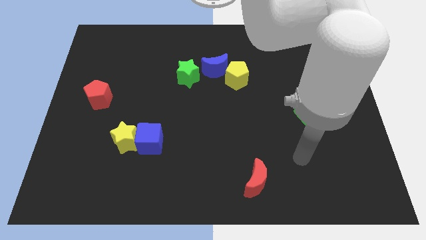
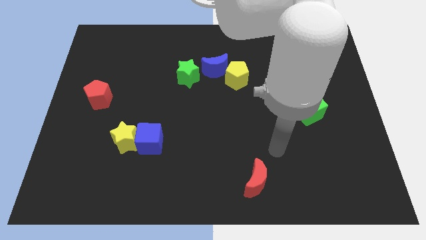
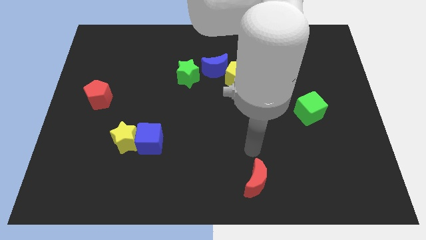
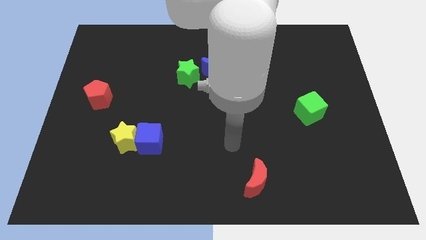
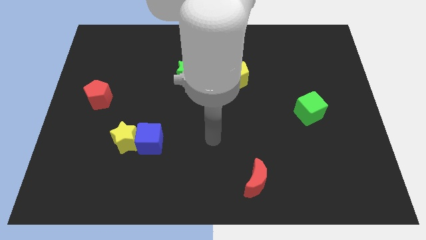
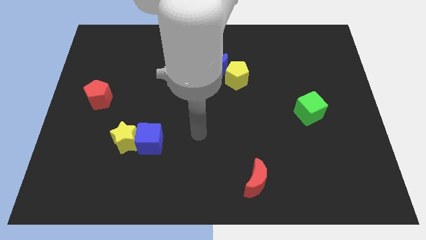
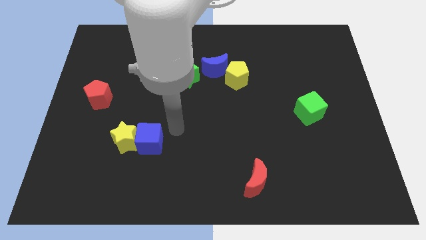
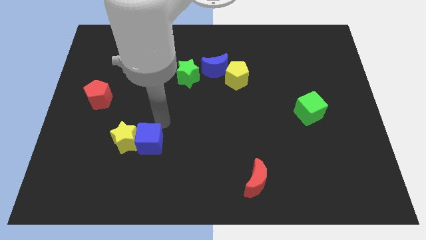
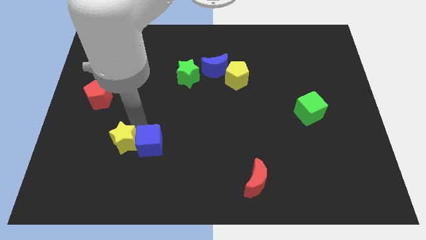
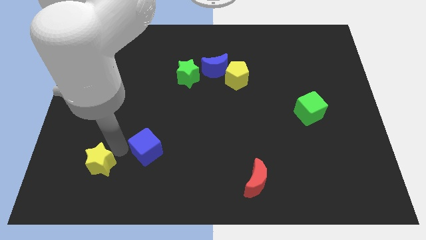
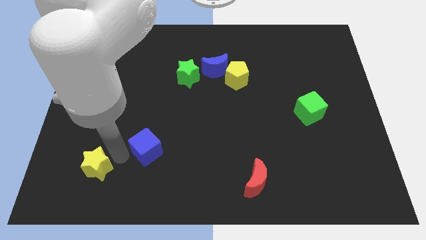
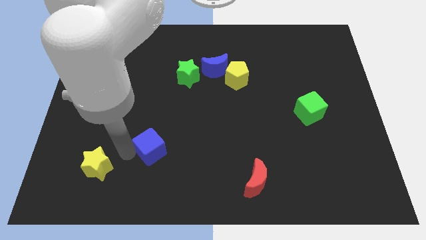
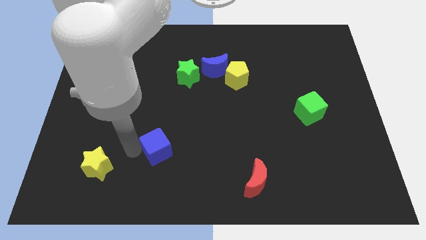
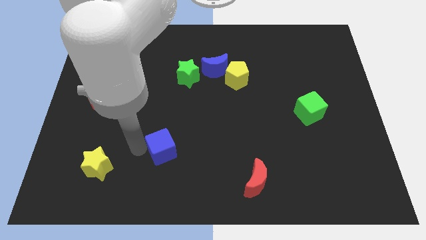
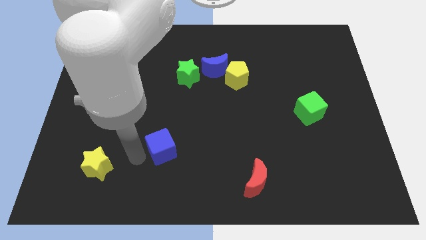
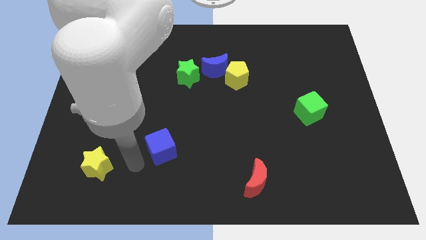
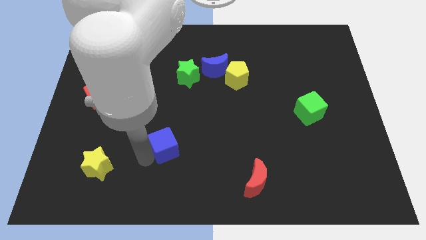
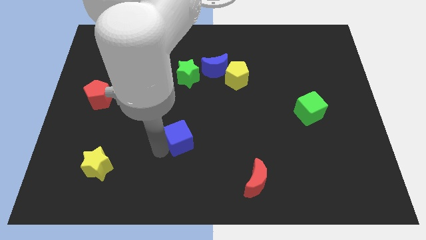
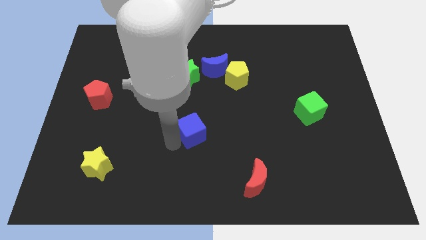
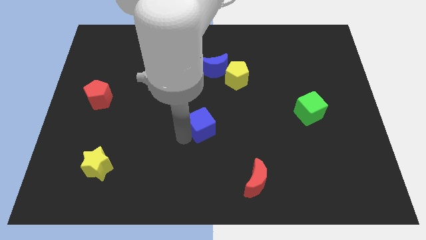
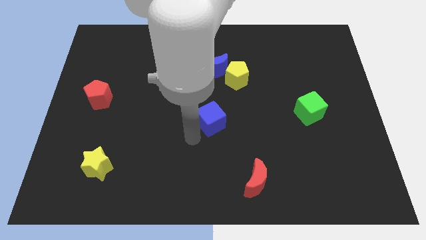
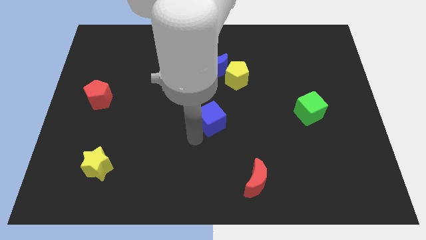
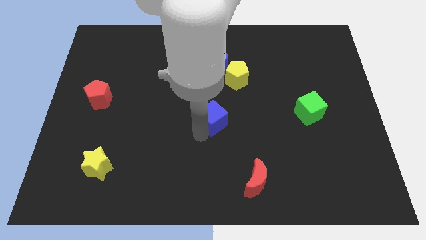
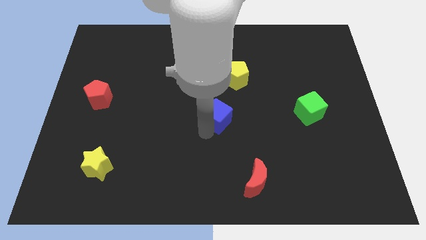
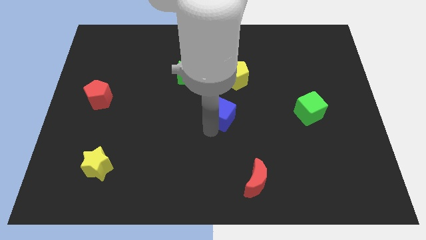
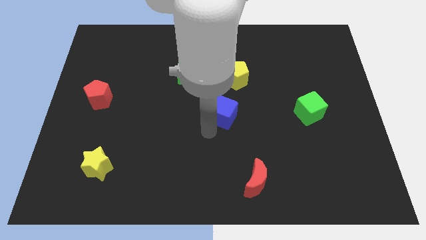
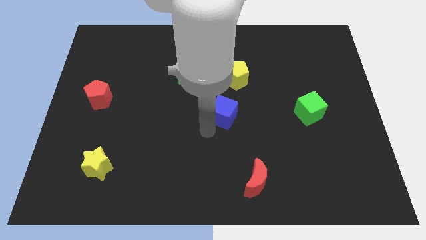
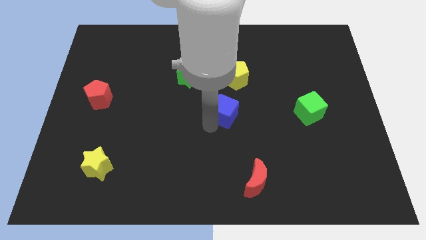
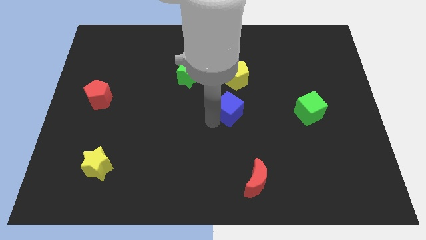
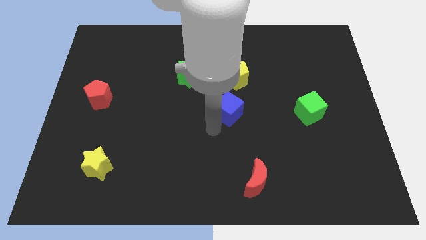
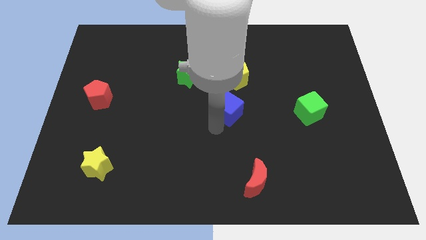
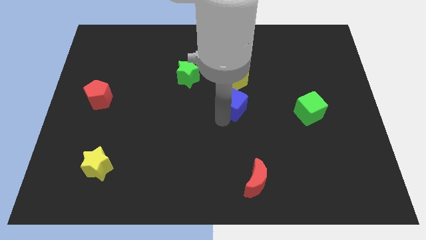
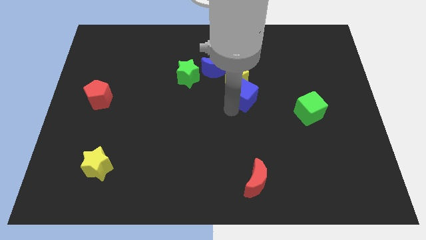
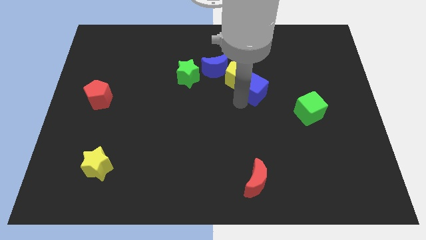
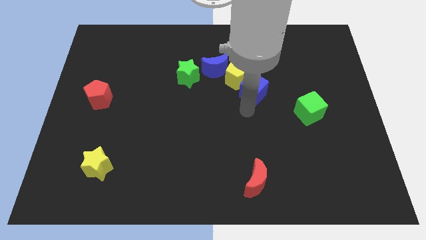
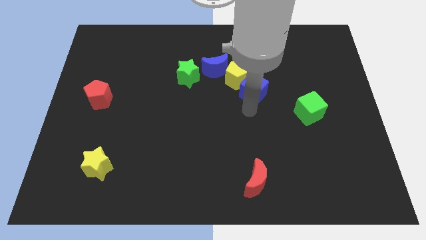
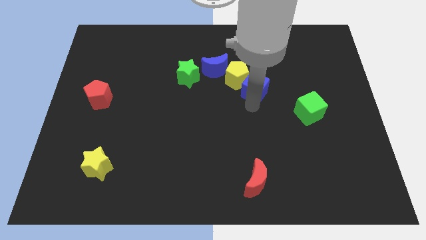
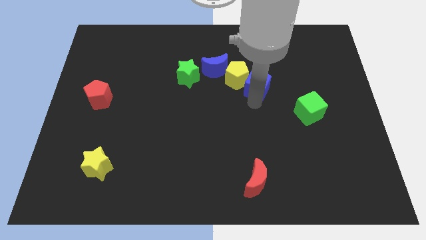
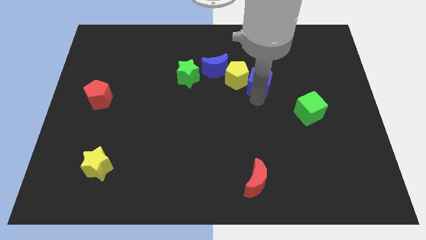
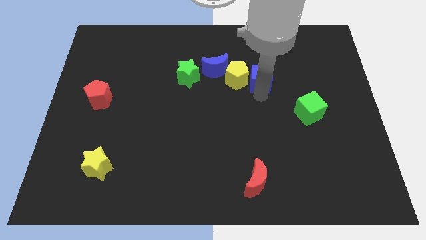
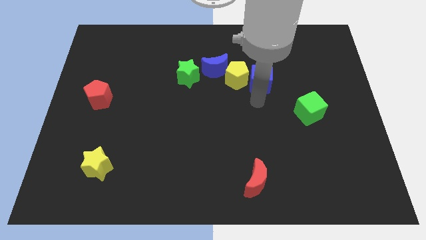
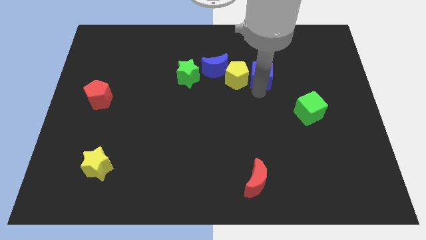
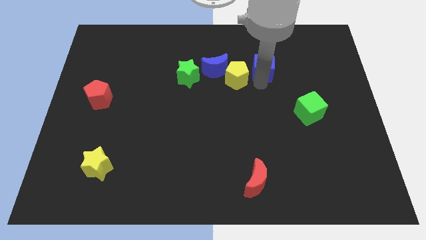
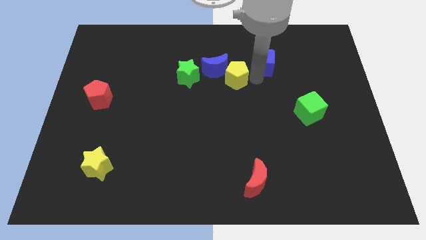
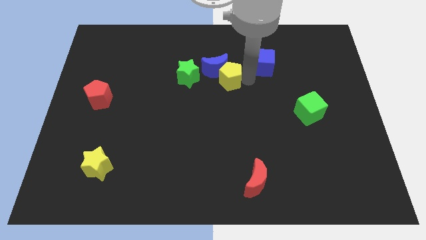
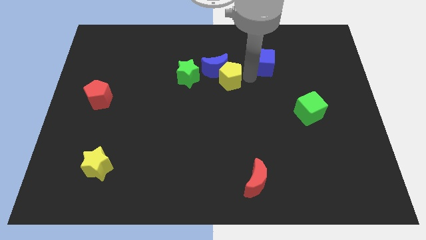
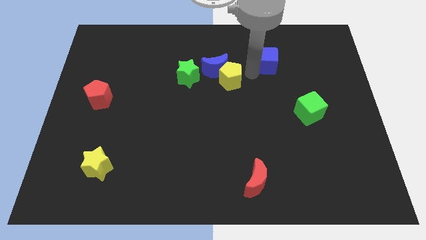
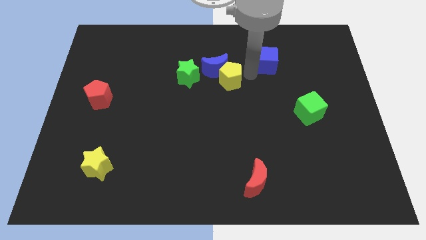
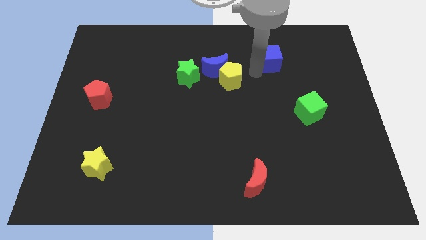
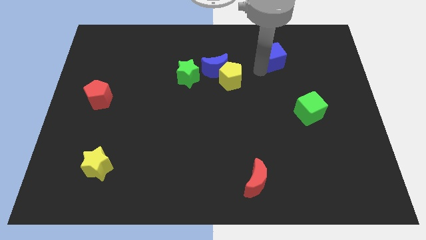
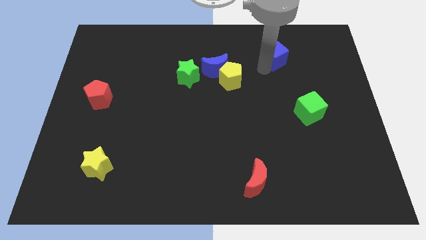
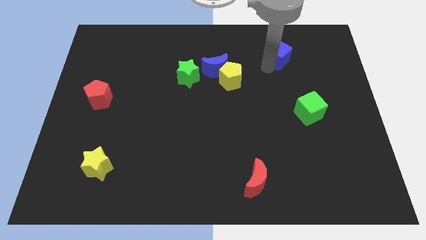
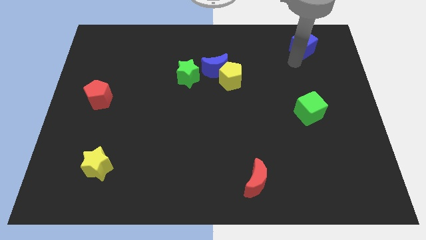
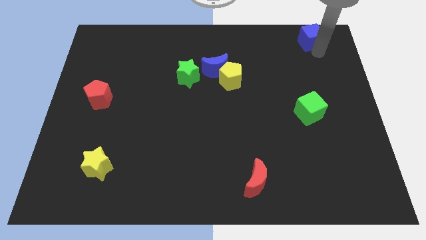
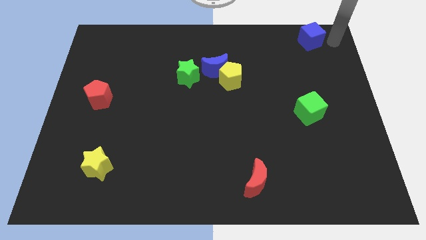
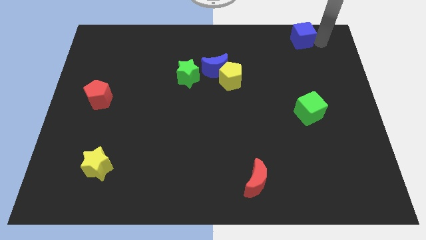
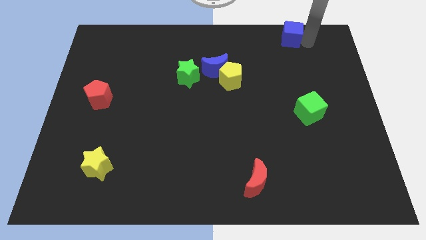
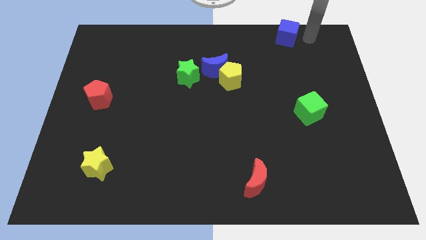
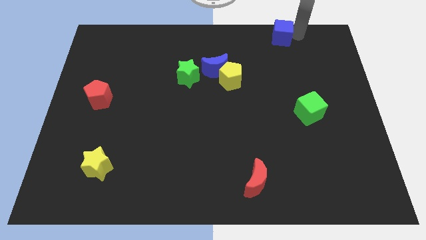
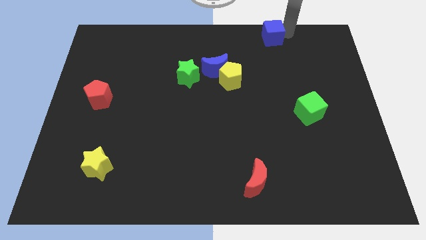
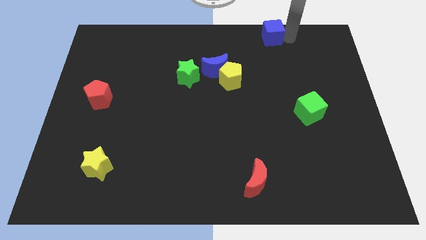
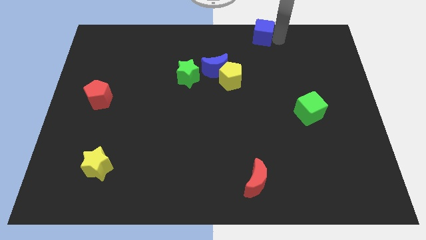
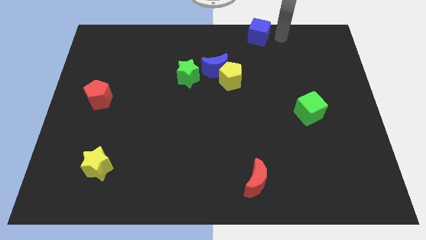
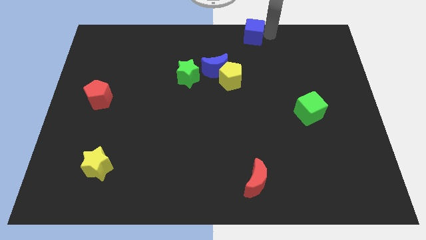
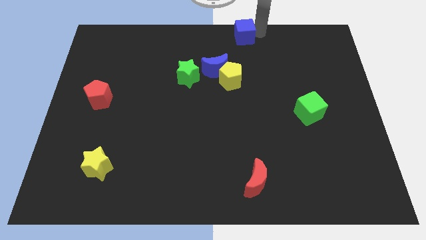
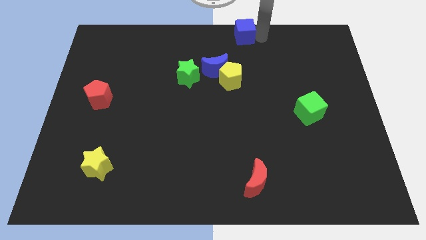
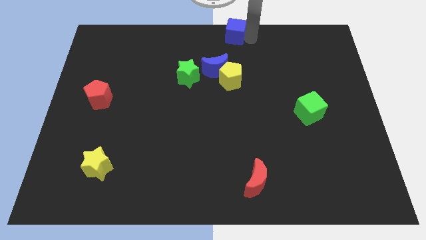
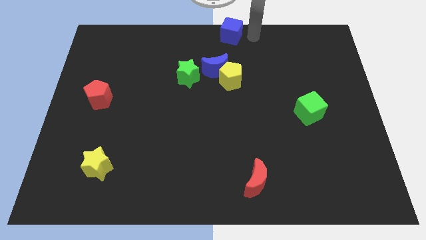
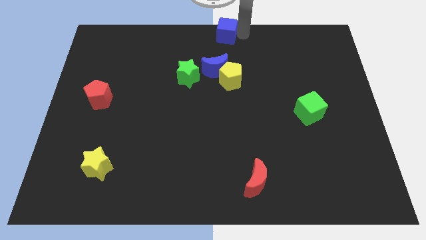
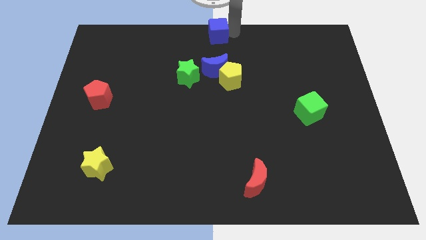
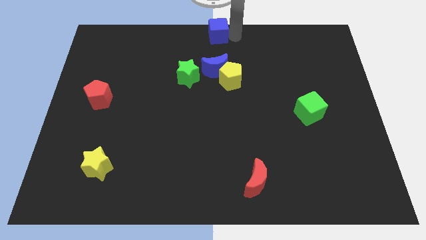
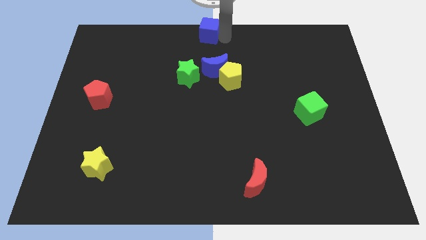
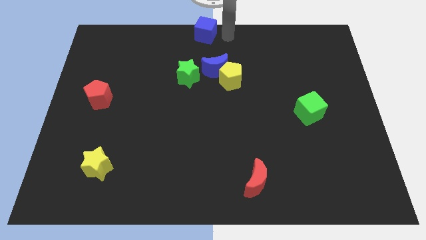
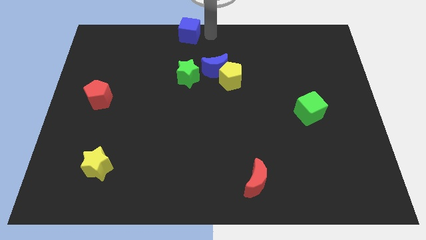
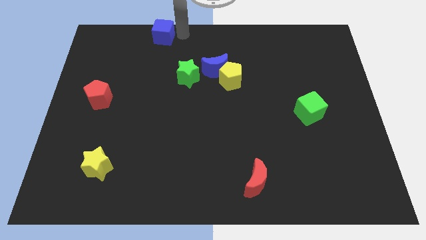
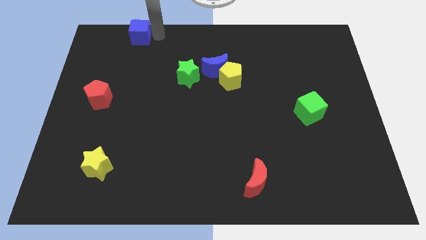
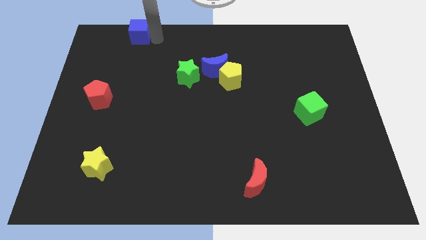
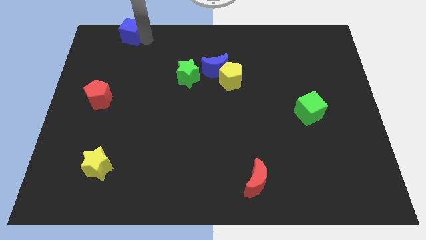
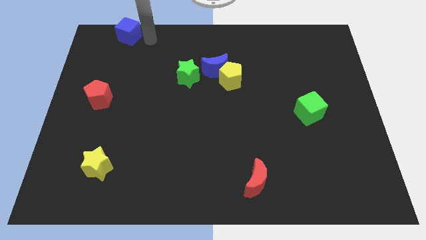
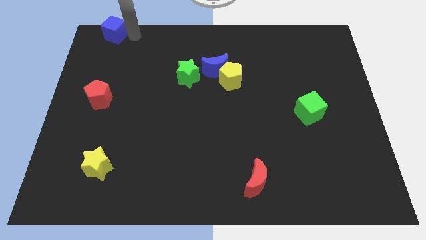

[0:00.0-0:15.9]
move the blue cube to the top left
